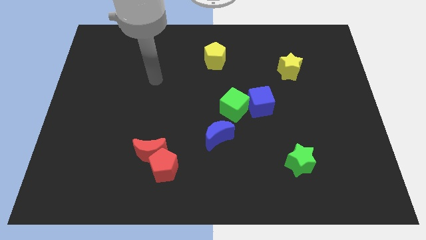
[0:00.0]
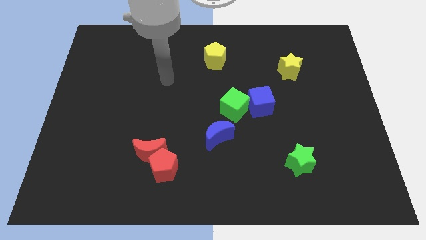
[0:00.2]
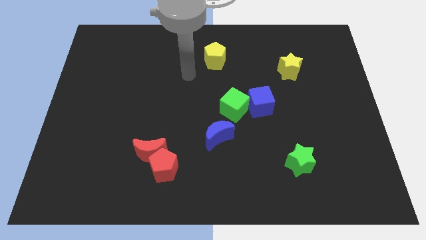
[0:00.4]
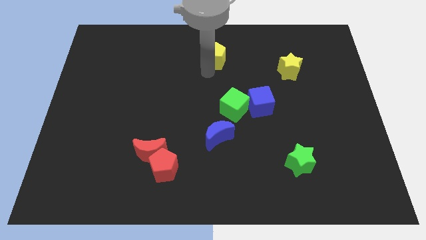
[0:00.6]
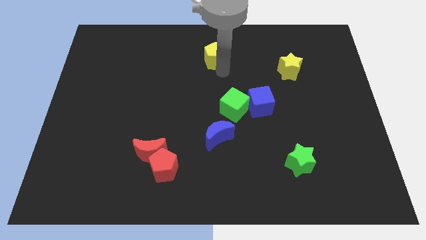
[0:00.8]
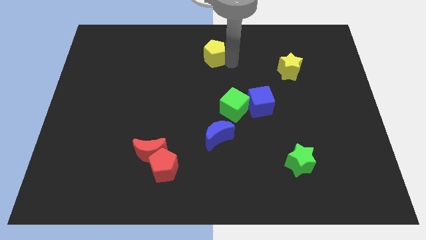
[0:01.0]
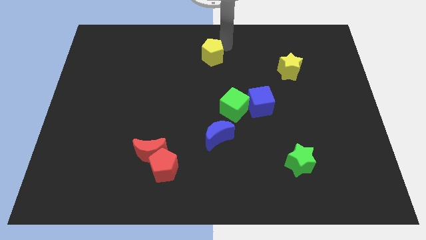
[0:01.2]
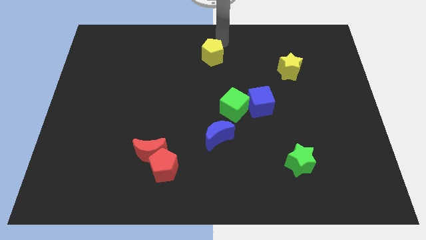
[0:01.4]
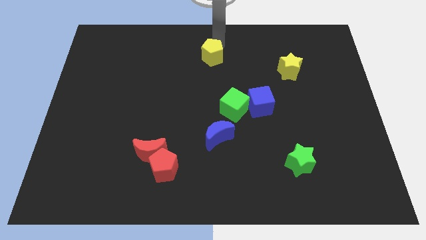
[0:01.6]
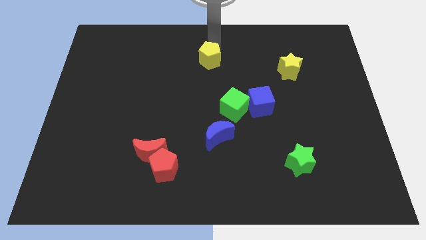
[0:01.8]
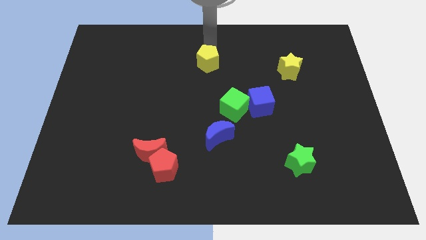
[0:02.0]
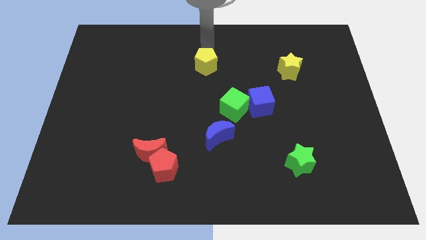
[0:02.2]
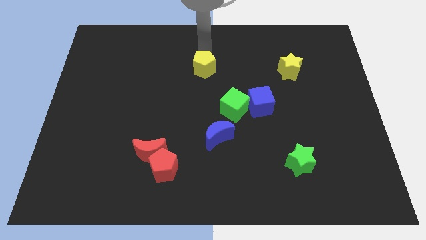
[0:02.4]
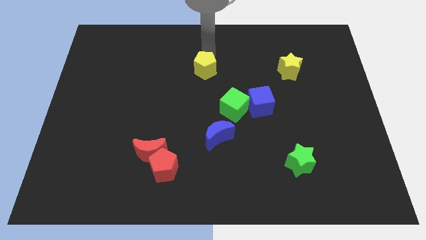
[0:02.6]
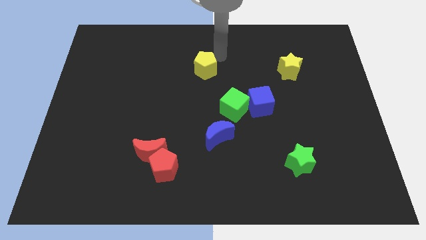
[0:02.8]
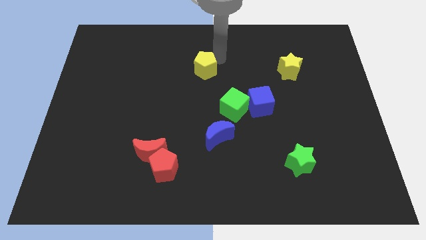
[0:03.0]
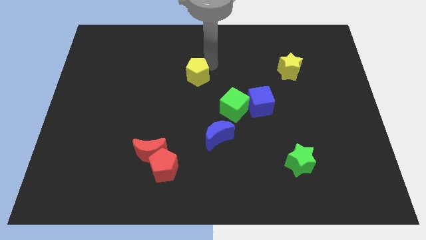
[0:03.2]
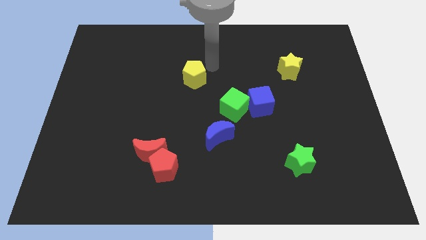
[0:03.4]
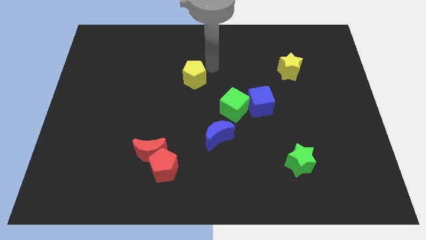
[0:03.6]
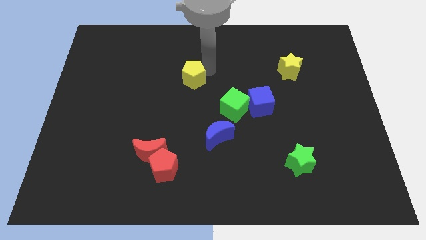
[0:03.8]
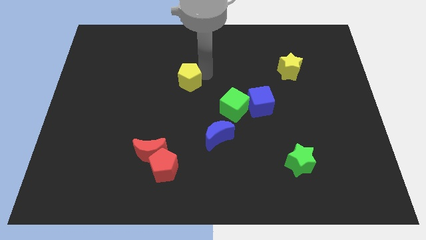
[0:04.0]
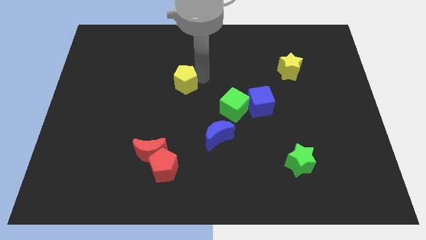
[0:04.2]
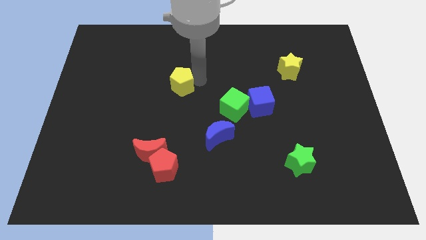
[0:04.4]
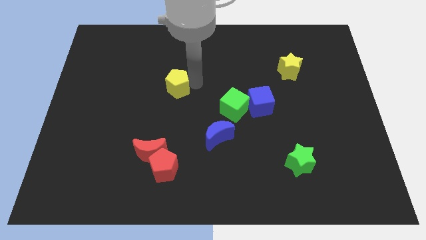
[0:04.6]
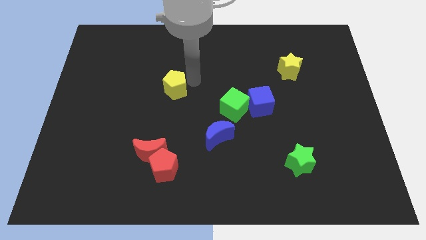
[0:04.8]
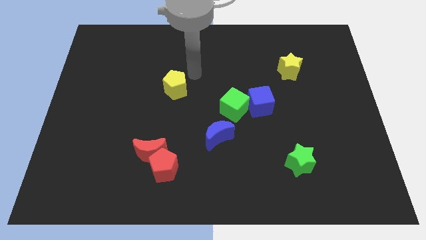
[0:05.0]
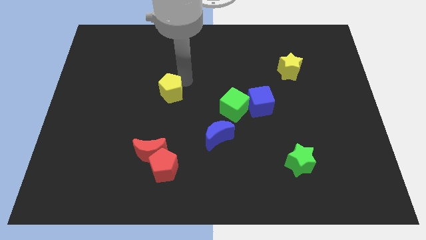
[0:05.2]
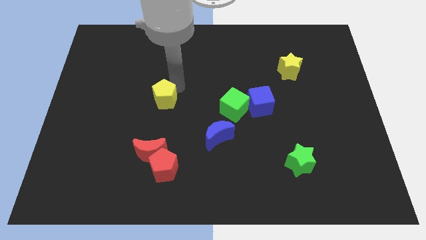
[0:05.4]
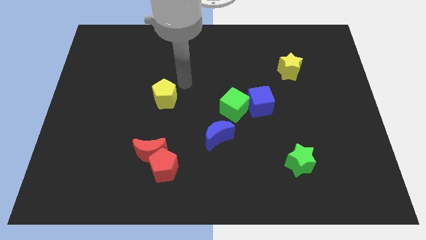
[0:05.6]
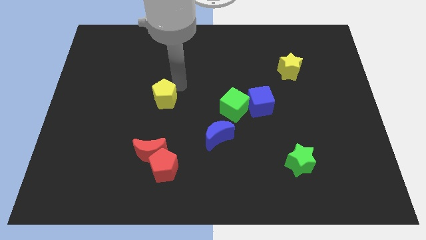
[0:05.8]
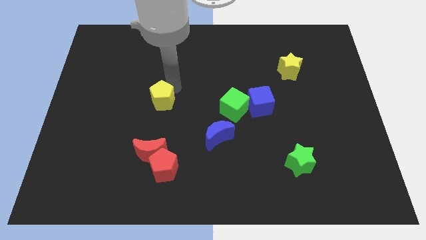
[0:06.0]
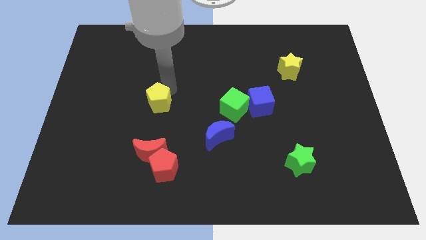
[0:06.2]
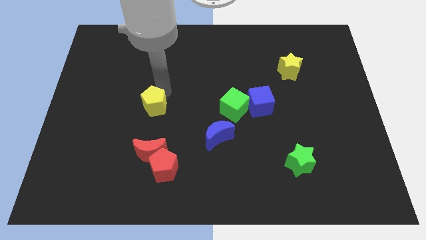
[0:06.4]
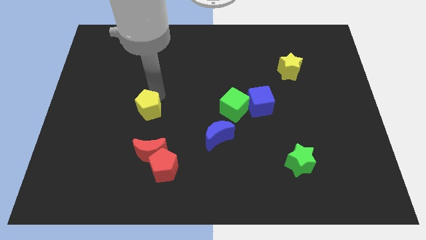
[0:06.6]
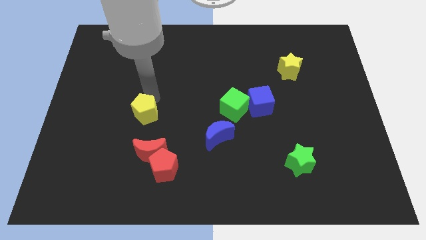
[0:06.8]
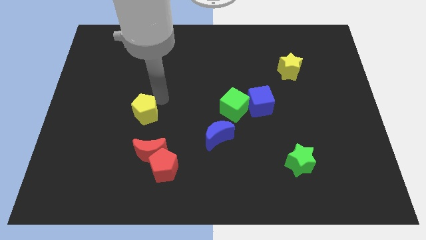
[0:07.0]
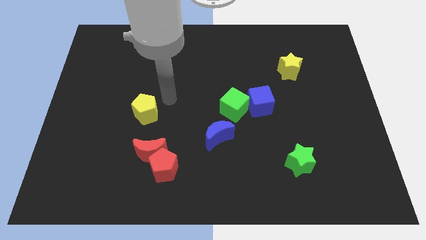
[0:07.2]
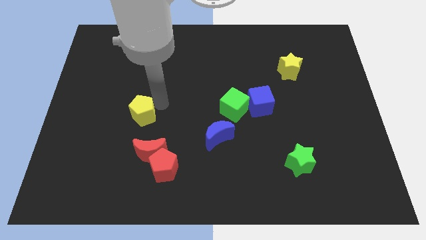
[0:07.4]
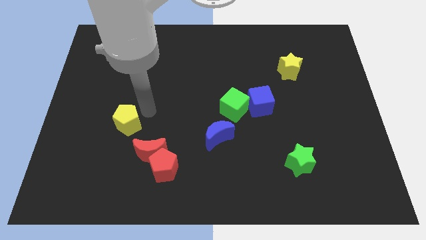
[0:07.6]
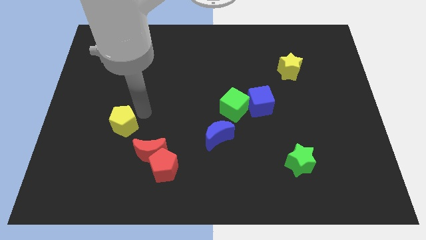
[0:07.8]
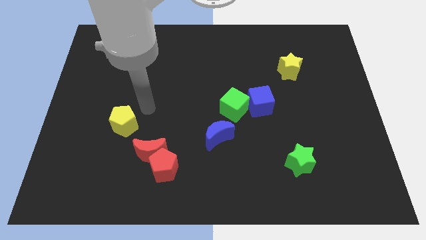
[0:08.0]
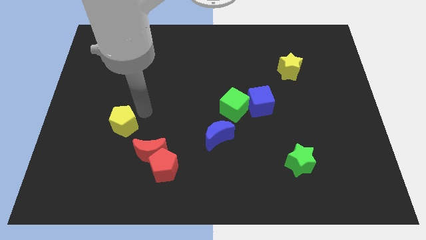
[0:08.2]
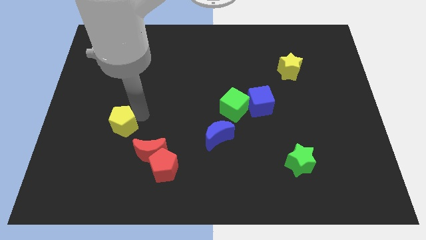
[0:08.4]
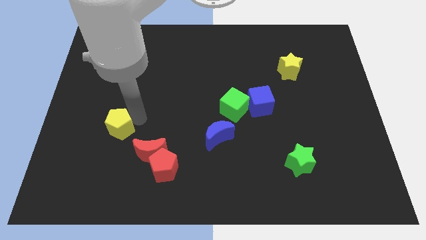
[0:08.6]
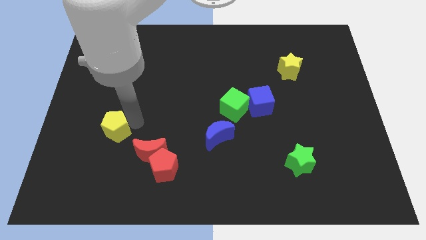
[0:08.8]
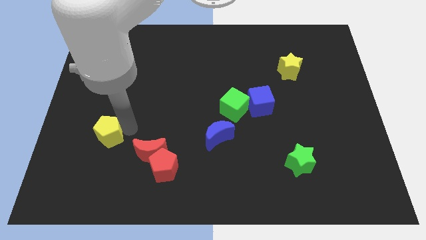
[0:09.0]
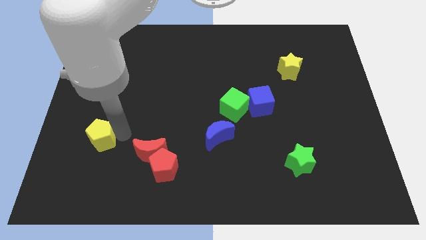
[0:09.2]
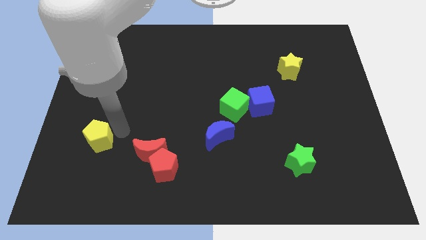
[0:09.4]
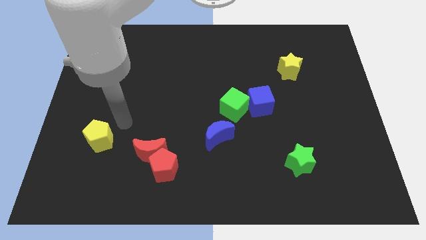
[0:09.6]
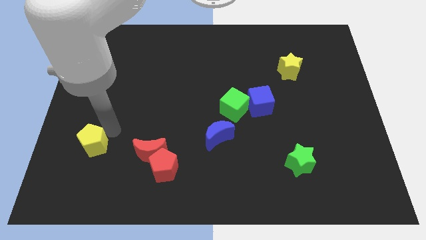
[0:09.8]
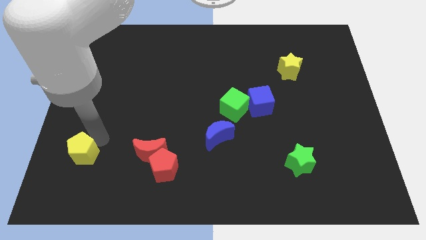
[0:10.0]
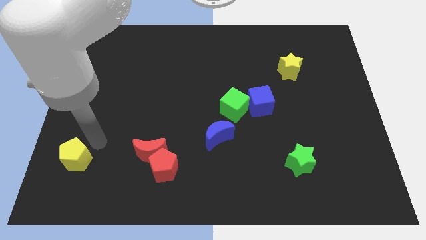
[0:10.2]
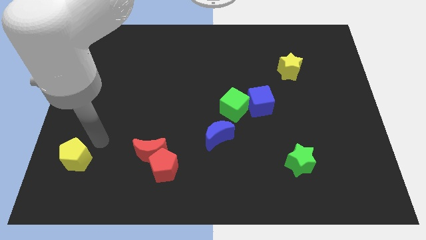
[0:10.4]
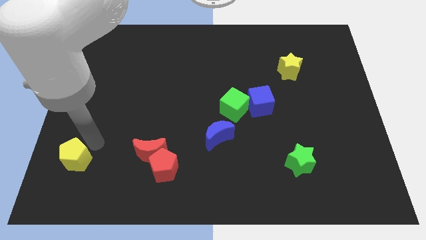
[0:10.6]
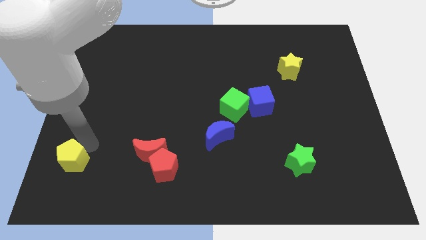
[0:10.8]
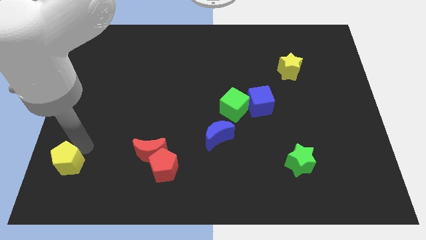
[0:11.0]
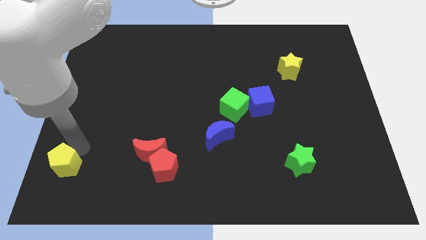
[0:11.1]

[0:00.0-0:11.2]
put the yellow pentagon to the bottom left

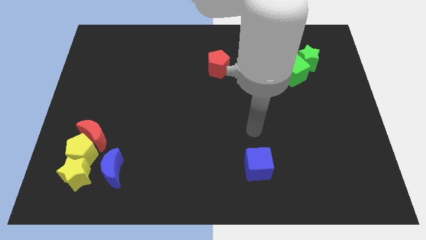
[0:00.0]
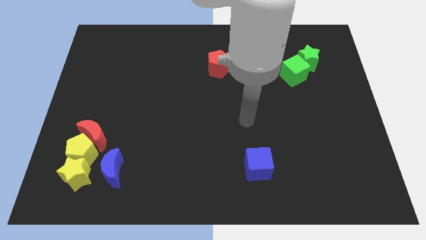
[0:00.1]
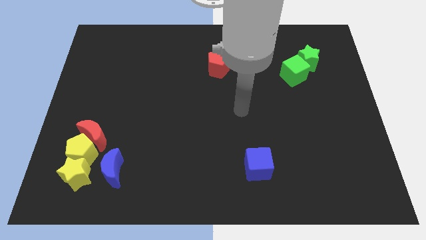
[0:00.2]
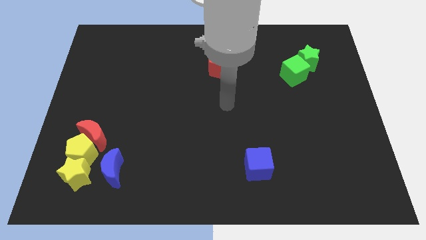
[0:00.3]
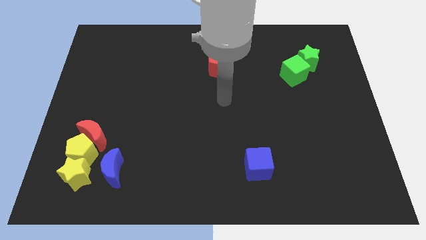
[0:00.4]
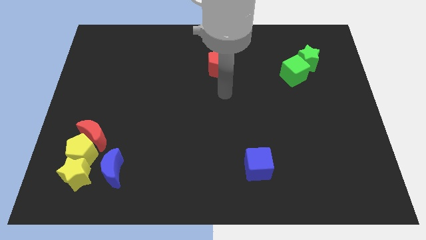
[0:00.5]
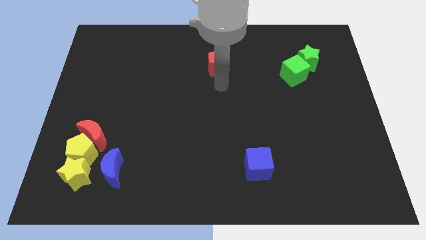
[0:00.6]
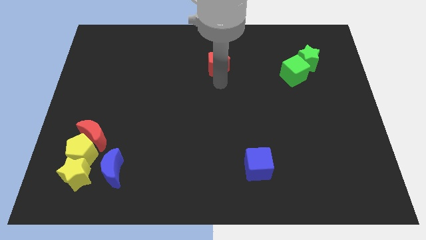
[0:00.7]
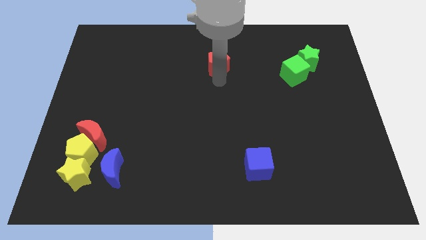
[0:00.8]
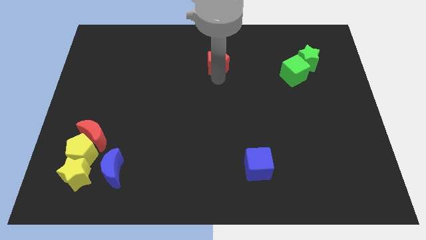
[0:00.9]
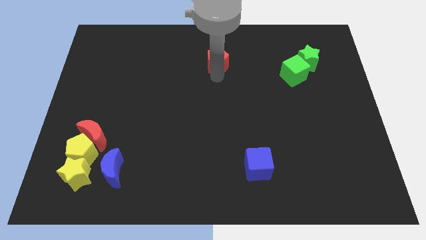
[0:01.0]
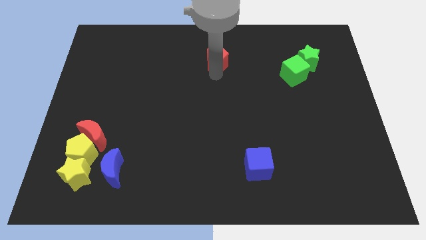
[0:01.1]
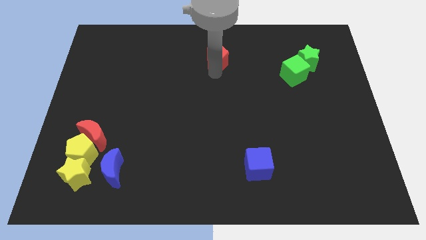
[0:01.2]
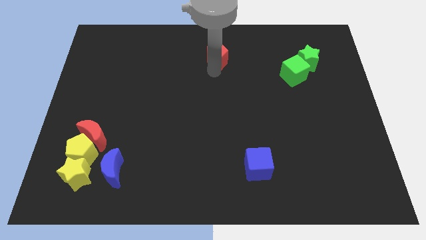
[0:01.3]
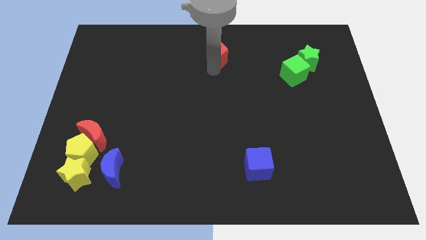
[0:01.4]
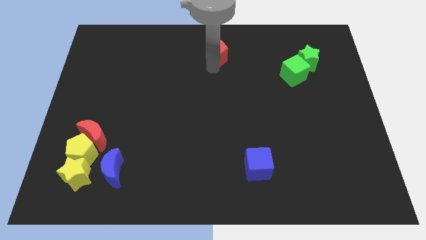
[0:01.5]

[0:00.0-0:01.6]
put the red pentagon to the top side

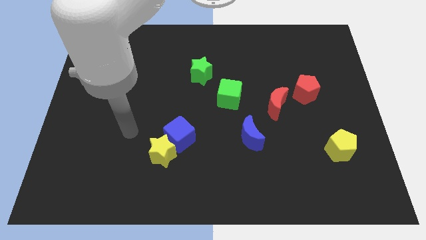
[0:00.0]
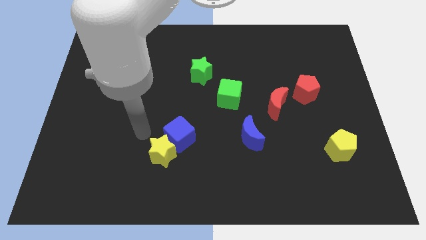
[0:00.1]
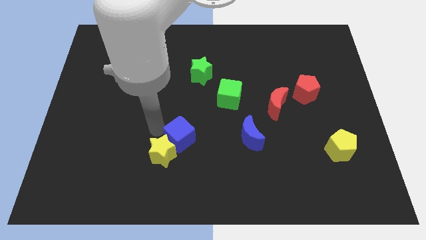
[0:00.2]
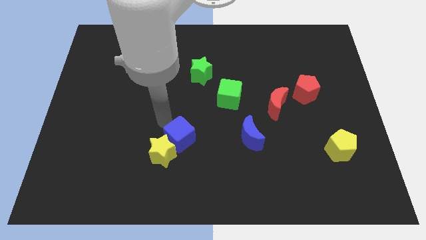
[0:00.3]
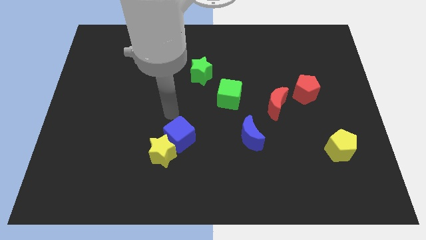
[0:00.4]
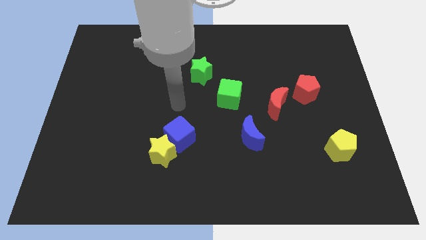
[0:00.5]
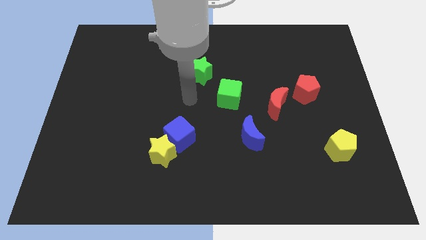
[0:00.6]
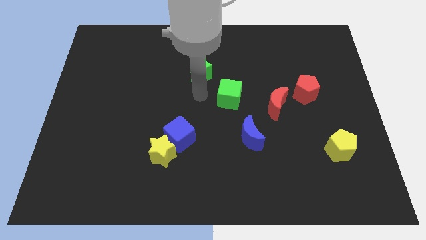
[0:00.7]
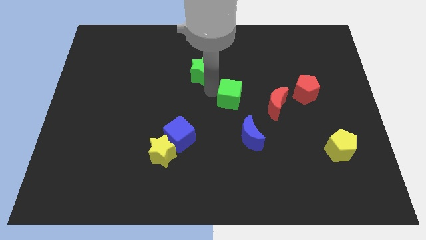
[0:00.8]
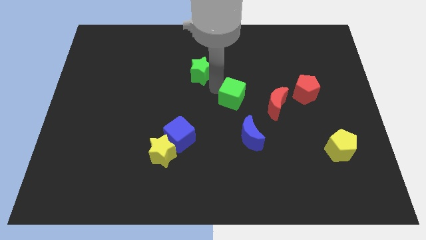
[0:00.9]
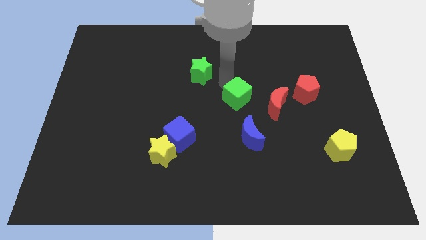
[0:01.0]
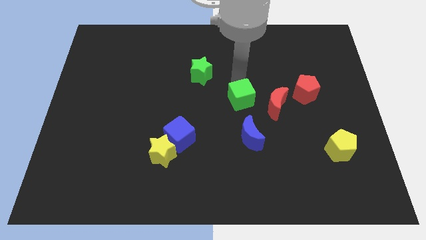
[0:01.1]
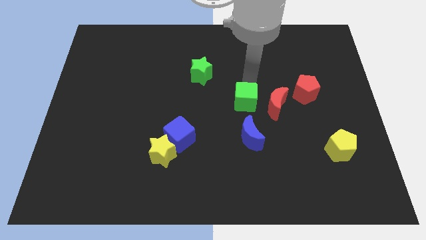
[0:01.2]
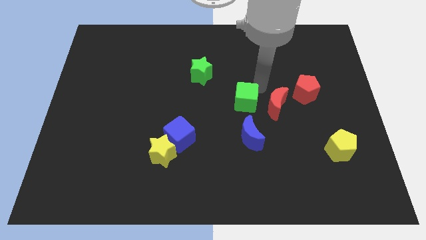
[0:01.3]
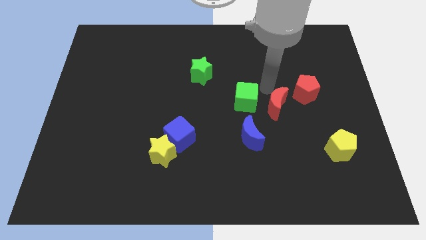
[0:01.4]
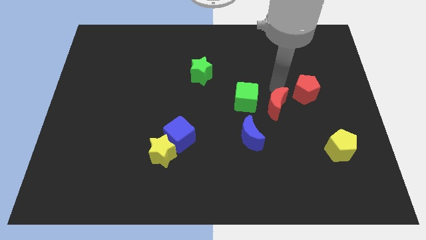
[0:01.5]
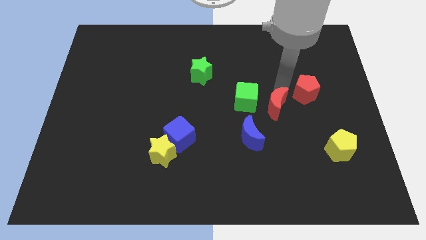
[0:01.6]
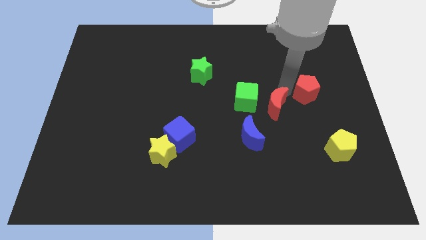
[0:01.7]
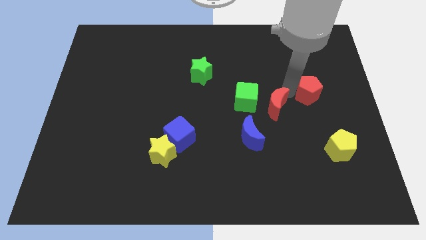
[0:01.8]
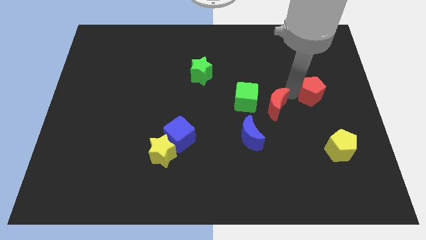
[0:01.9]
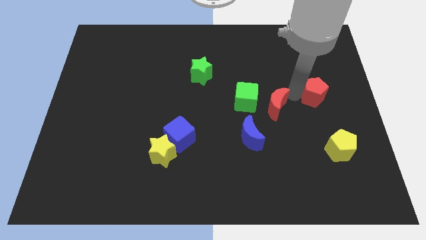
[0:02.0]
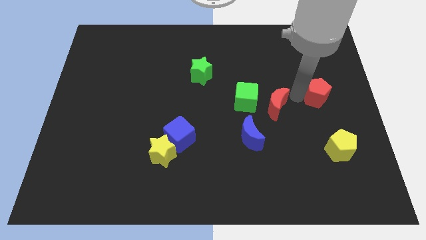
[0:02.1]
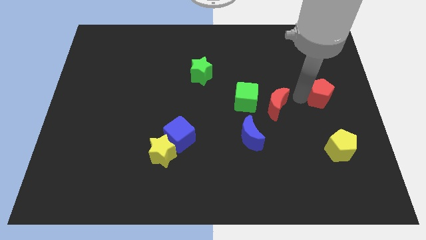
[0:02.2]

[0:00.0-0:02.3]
move the red pentagon to the center right
